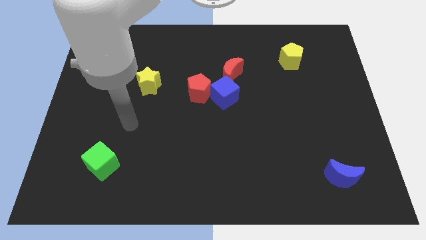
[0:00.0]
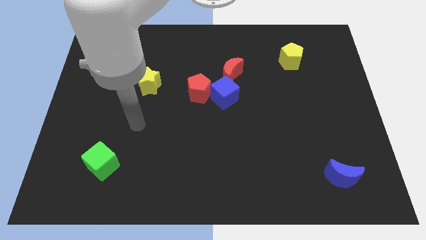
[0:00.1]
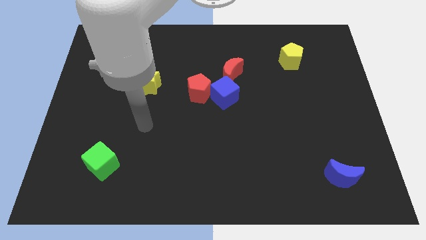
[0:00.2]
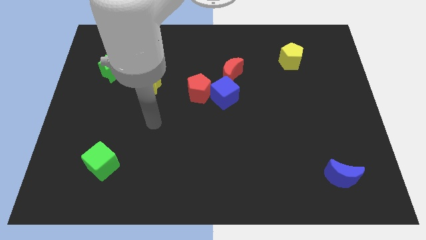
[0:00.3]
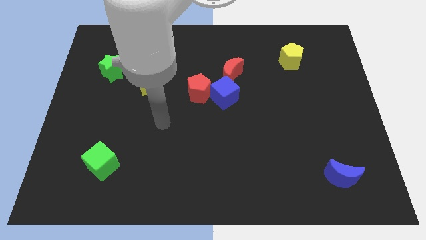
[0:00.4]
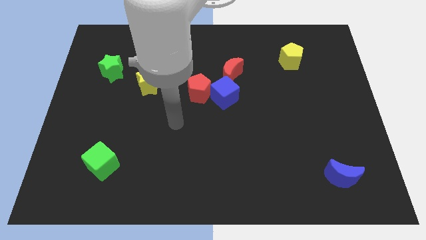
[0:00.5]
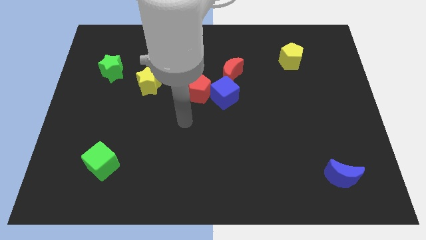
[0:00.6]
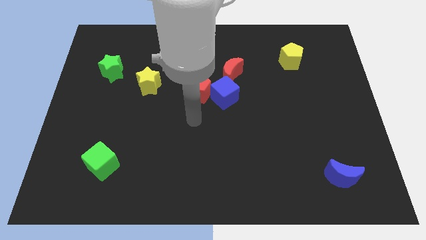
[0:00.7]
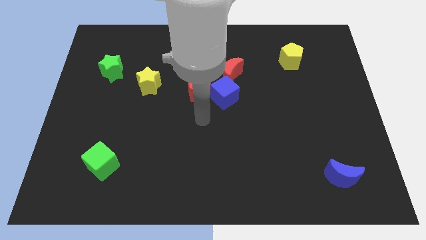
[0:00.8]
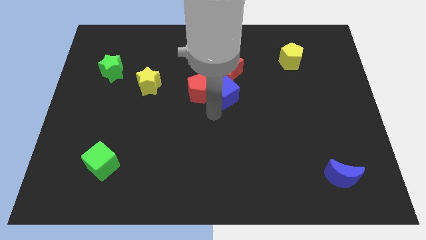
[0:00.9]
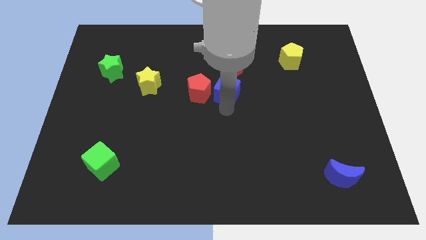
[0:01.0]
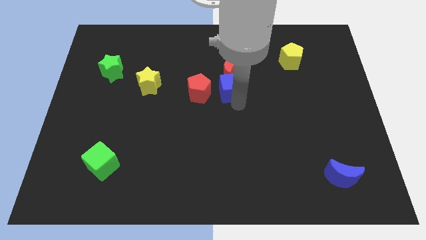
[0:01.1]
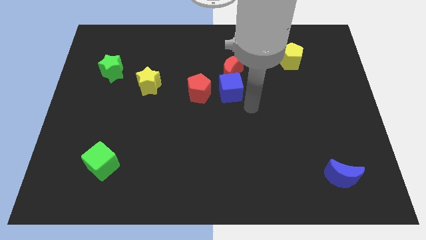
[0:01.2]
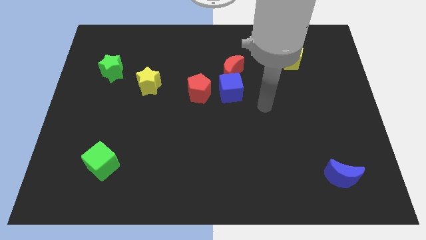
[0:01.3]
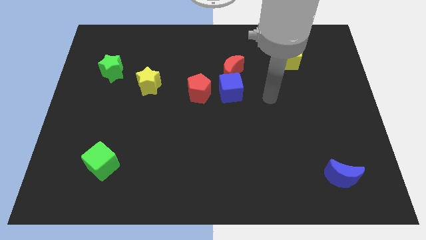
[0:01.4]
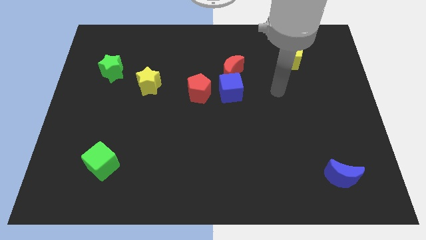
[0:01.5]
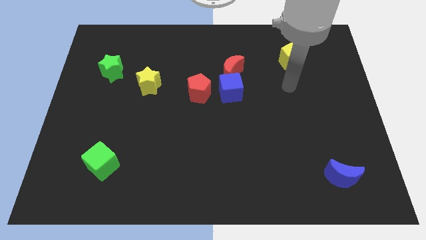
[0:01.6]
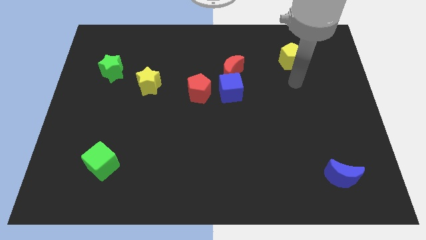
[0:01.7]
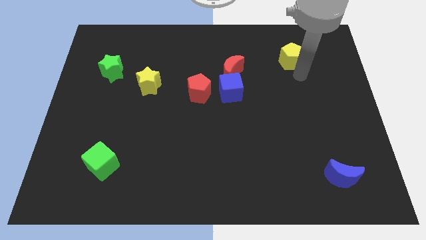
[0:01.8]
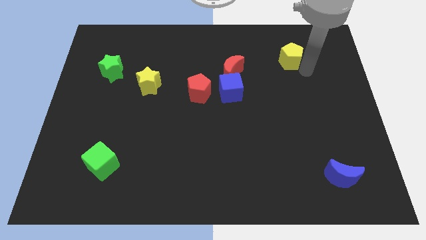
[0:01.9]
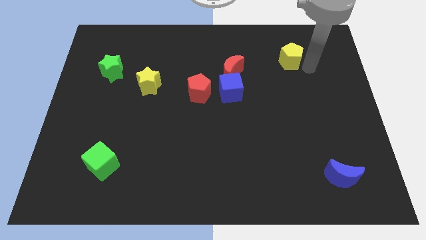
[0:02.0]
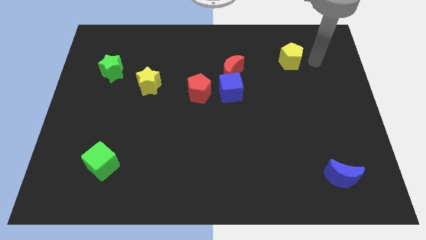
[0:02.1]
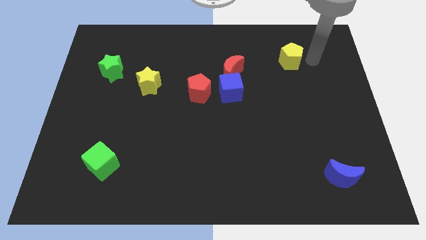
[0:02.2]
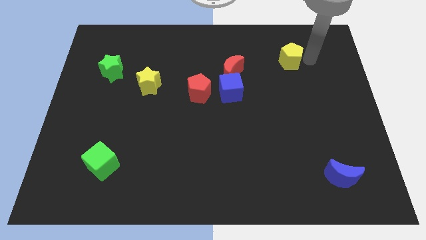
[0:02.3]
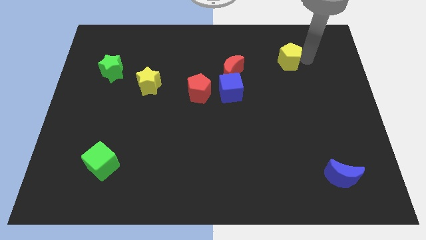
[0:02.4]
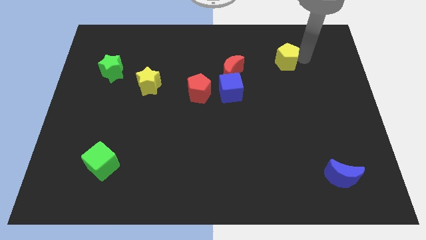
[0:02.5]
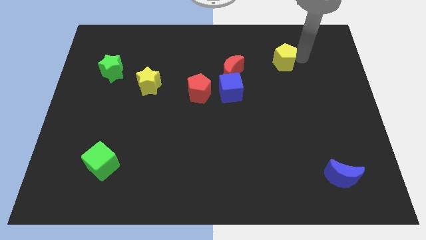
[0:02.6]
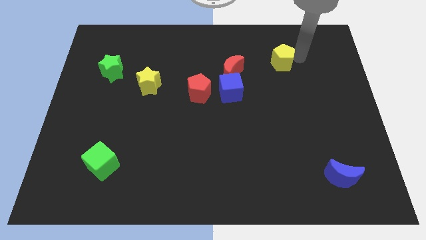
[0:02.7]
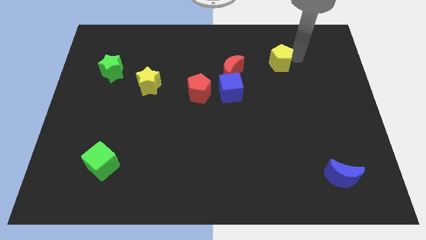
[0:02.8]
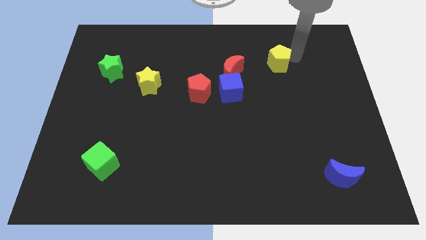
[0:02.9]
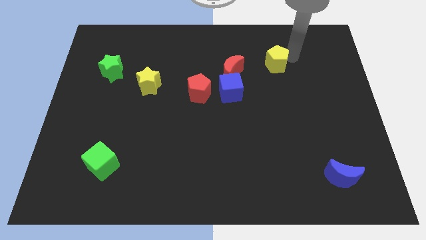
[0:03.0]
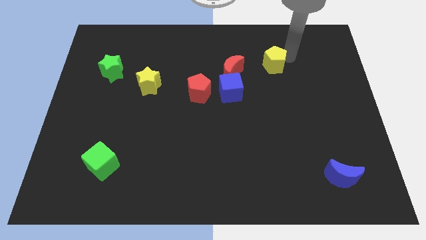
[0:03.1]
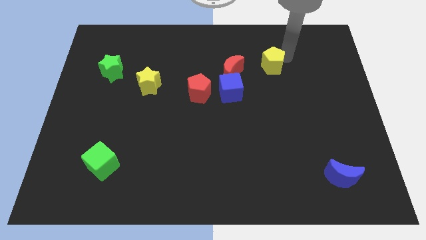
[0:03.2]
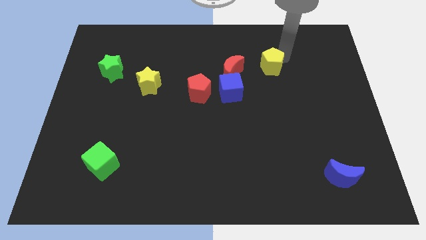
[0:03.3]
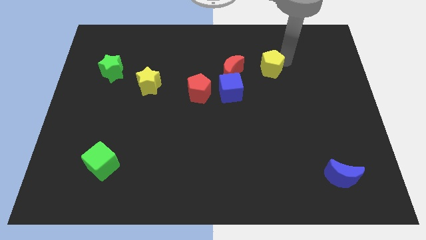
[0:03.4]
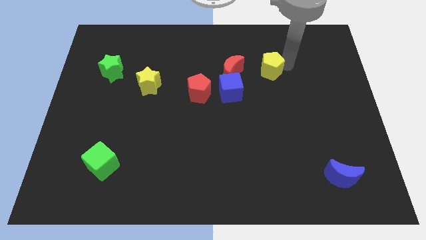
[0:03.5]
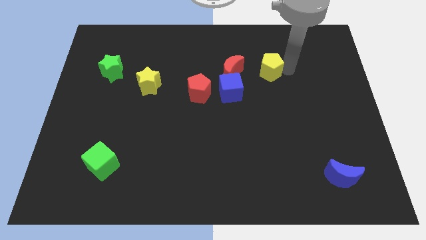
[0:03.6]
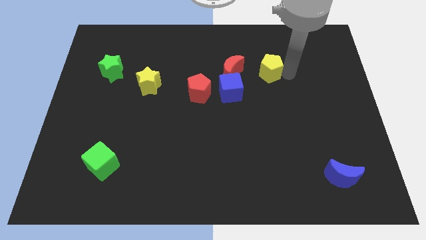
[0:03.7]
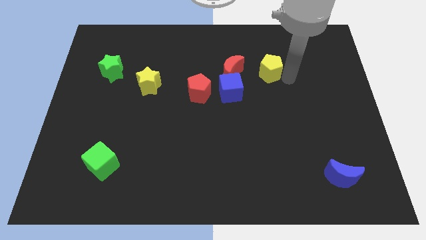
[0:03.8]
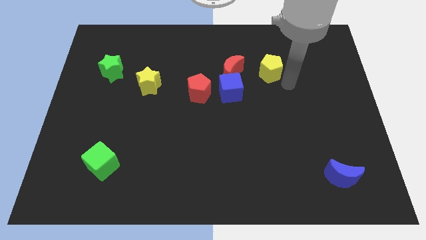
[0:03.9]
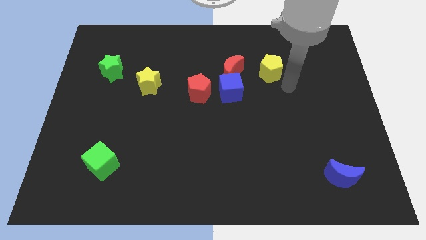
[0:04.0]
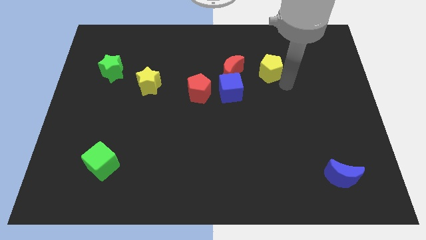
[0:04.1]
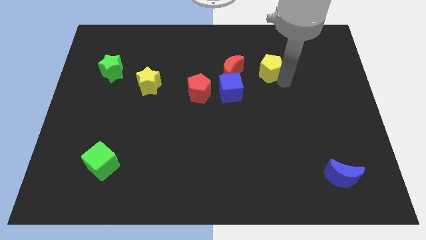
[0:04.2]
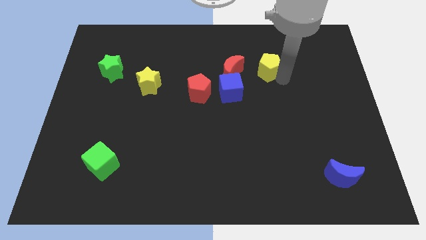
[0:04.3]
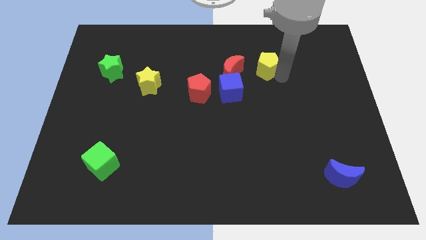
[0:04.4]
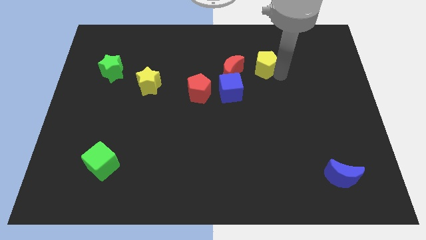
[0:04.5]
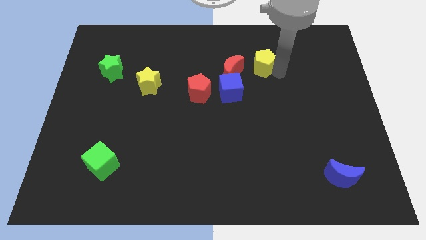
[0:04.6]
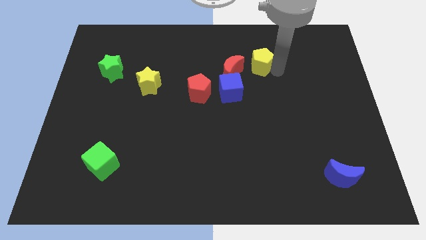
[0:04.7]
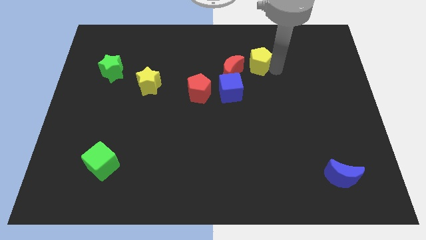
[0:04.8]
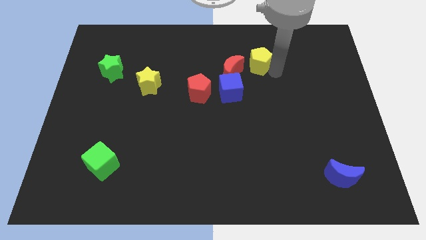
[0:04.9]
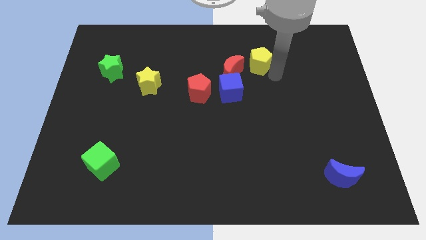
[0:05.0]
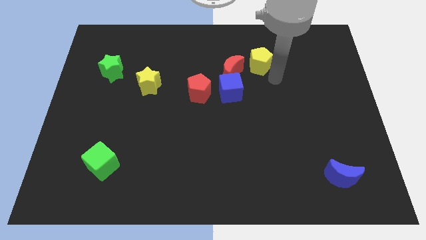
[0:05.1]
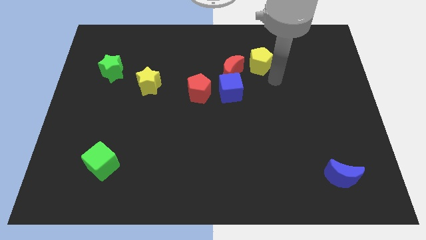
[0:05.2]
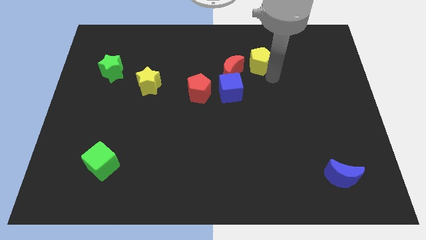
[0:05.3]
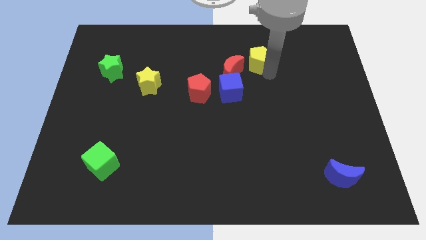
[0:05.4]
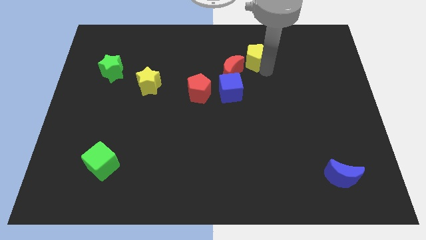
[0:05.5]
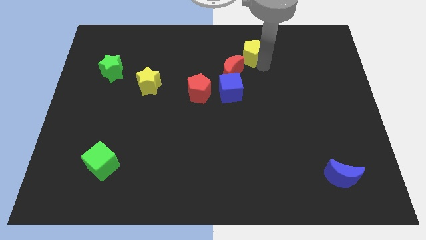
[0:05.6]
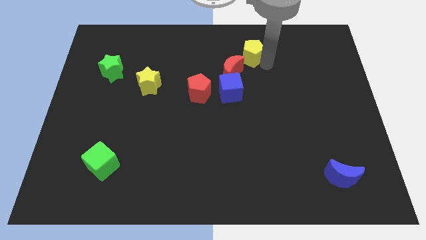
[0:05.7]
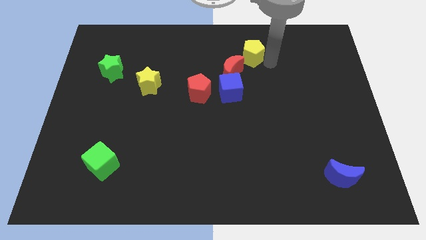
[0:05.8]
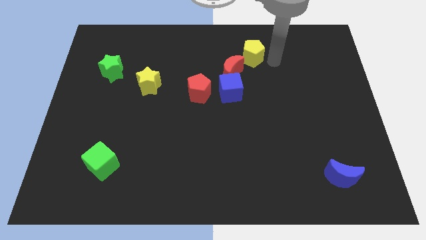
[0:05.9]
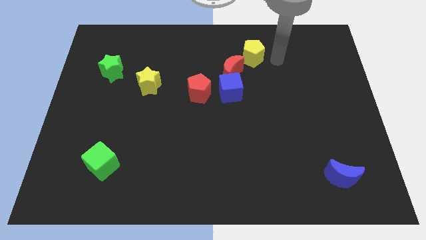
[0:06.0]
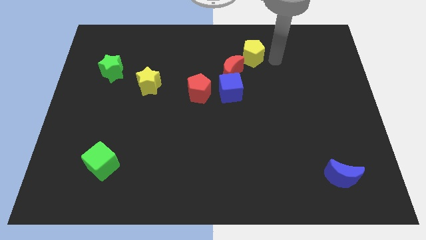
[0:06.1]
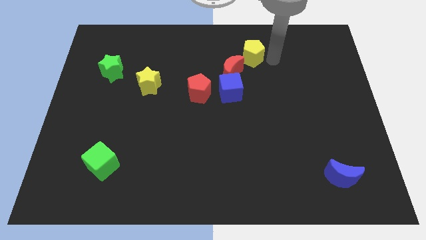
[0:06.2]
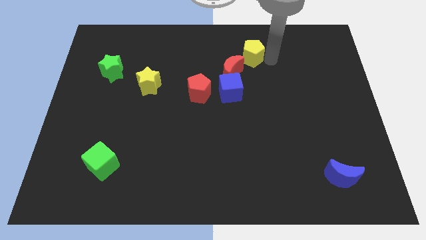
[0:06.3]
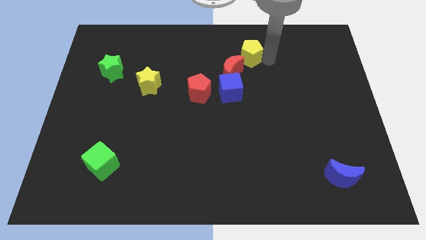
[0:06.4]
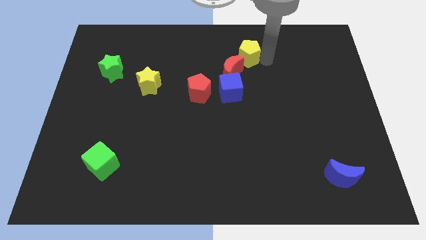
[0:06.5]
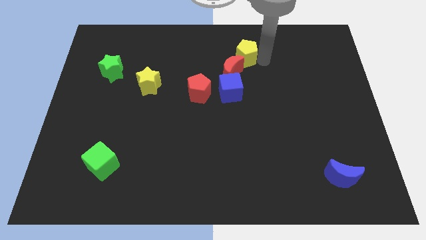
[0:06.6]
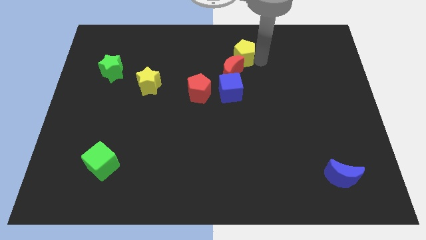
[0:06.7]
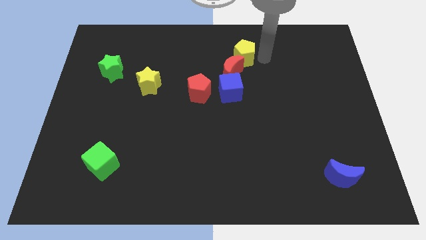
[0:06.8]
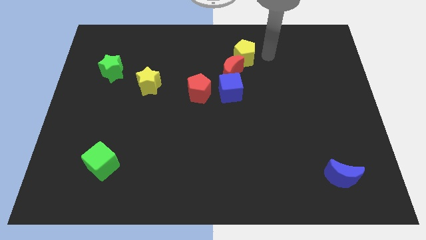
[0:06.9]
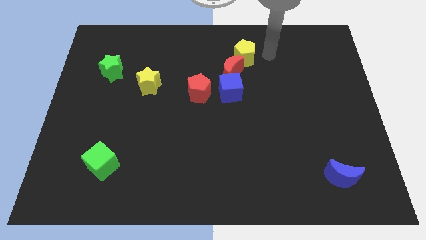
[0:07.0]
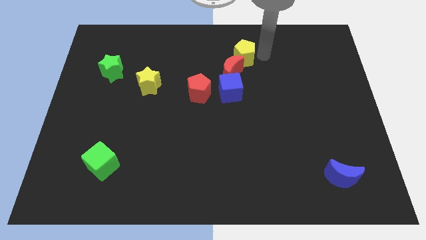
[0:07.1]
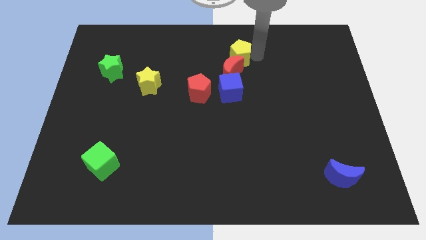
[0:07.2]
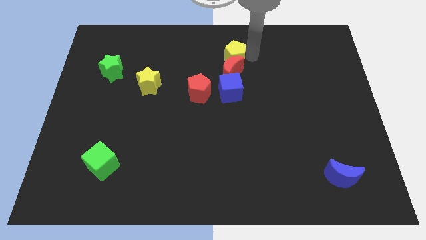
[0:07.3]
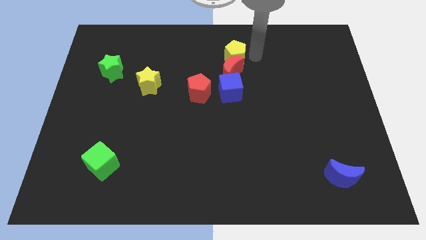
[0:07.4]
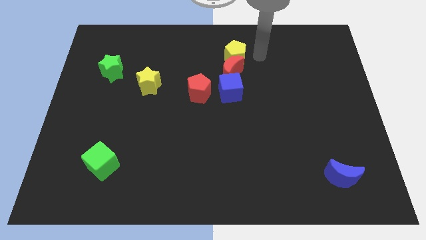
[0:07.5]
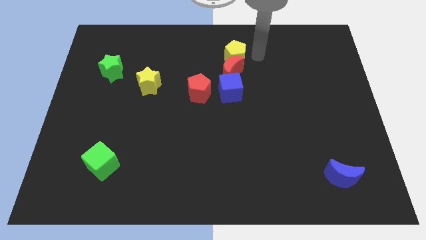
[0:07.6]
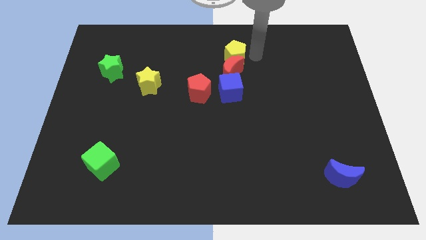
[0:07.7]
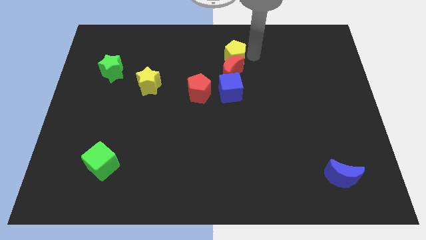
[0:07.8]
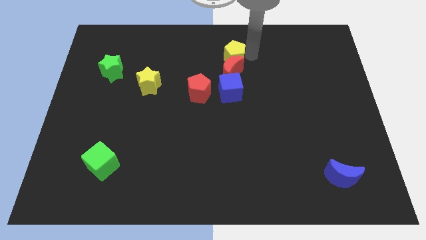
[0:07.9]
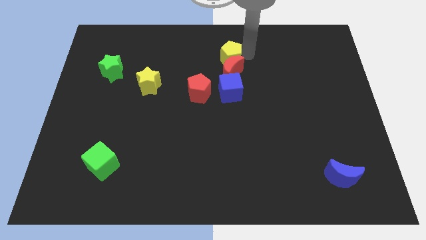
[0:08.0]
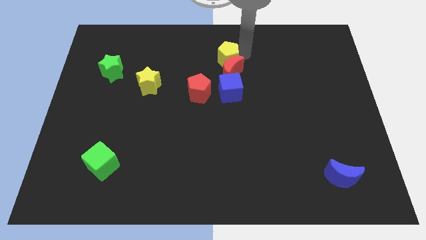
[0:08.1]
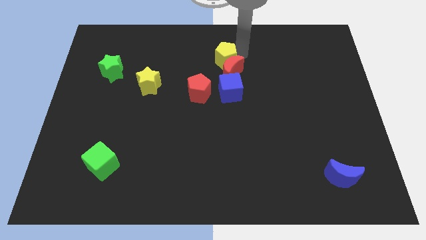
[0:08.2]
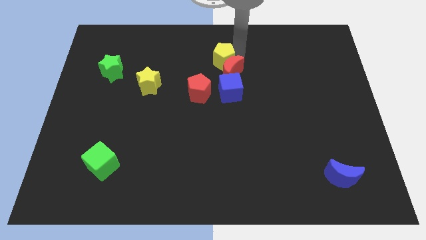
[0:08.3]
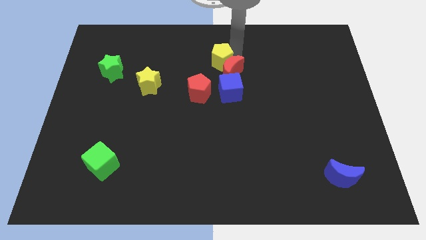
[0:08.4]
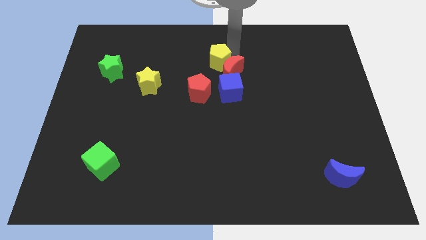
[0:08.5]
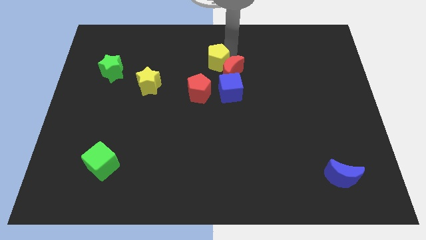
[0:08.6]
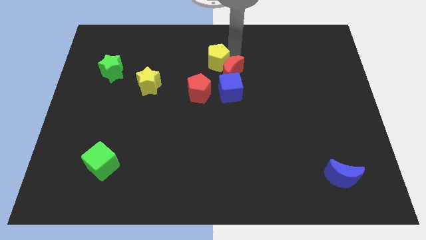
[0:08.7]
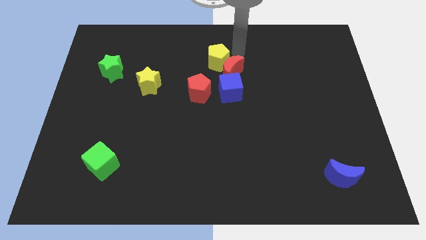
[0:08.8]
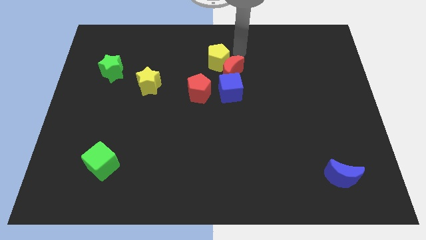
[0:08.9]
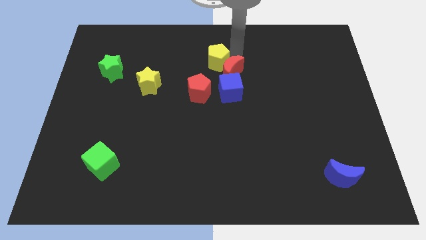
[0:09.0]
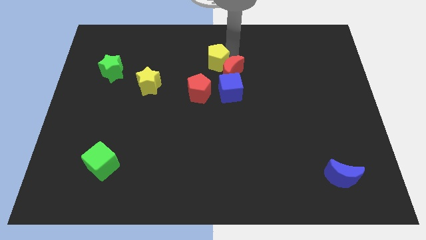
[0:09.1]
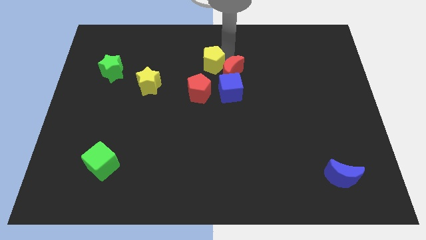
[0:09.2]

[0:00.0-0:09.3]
move the yellow pentagon to the top left of the blue cube
